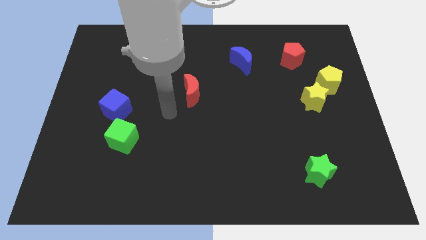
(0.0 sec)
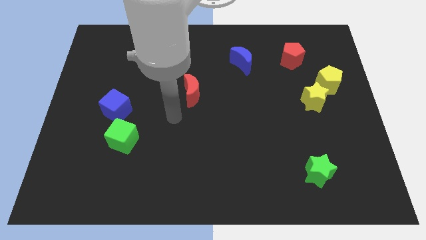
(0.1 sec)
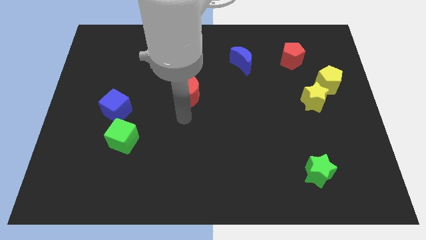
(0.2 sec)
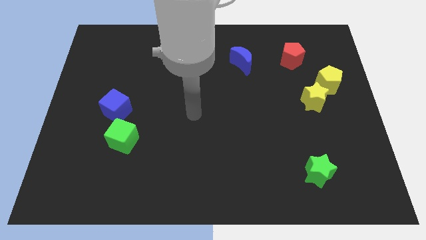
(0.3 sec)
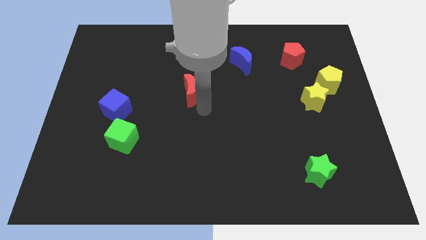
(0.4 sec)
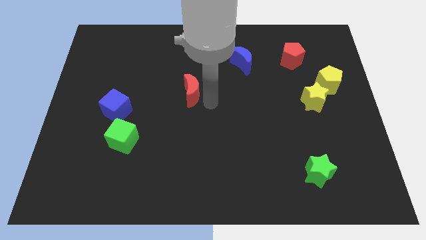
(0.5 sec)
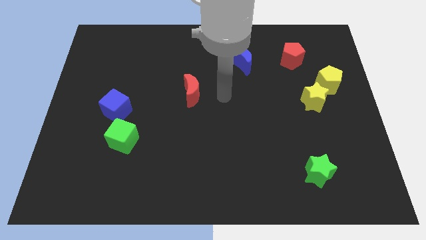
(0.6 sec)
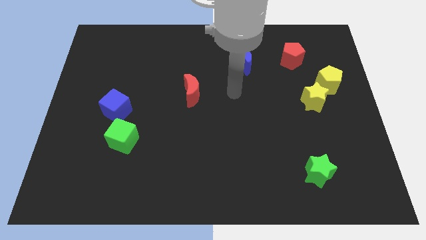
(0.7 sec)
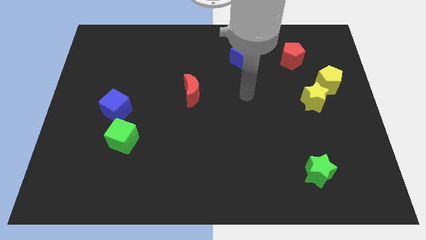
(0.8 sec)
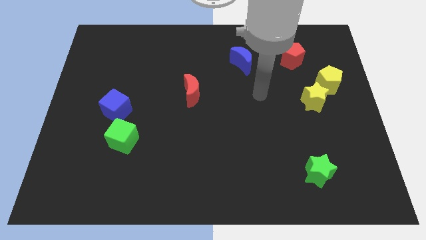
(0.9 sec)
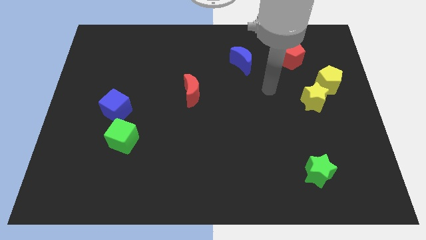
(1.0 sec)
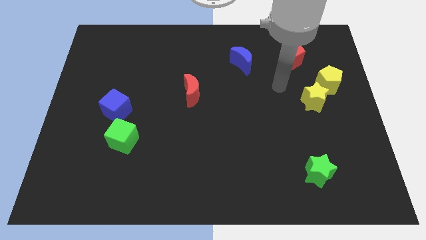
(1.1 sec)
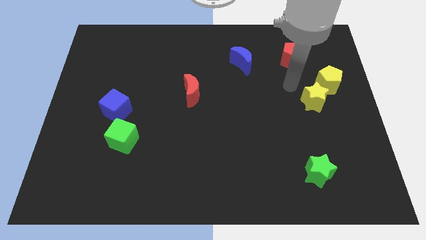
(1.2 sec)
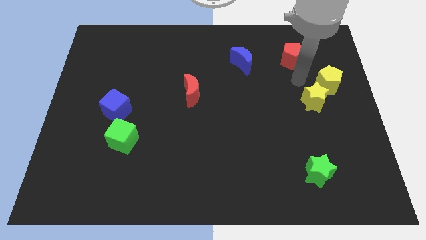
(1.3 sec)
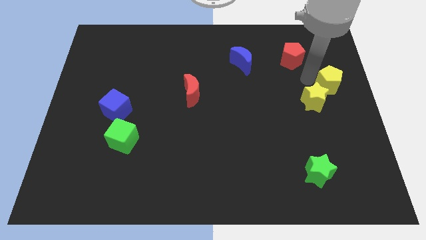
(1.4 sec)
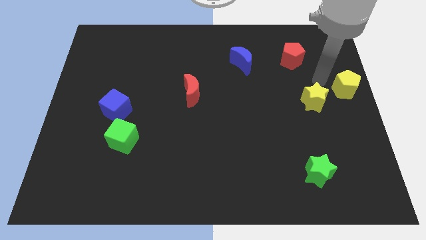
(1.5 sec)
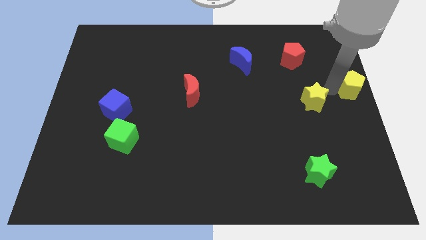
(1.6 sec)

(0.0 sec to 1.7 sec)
pull the yellow star apart from the yellow pentagon

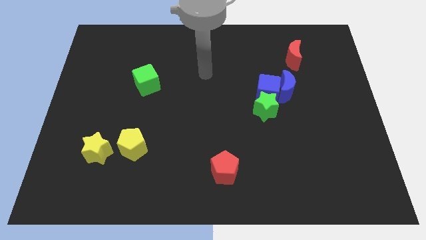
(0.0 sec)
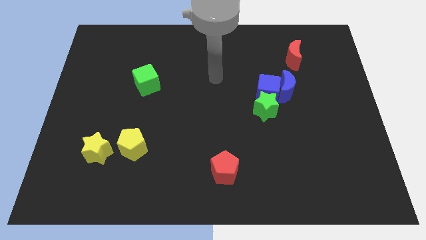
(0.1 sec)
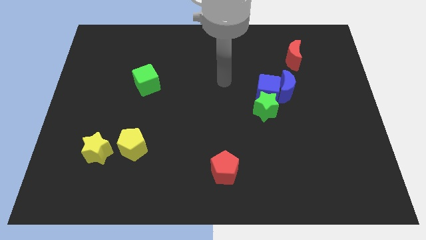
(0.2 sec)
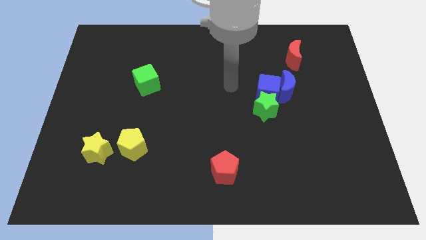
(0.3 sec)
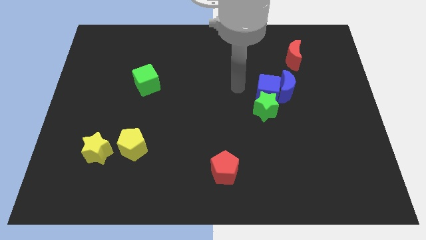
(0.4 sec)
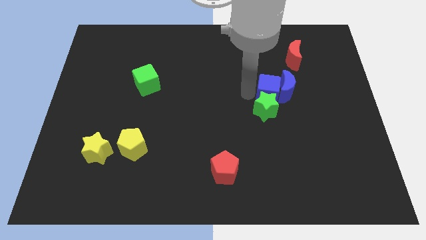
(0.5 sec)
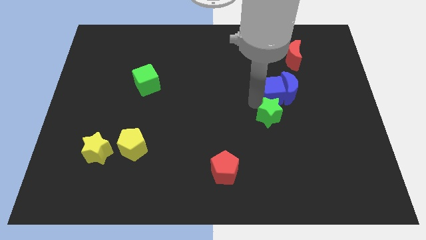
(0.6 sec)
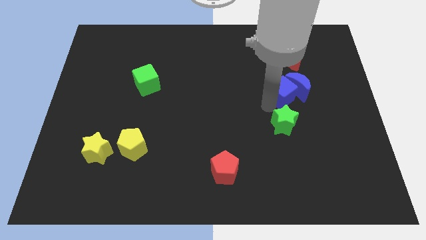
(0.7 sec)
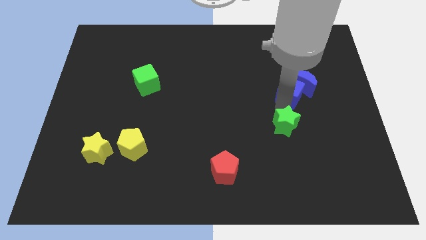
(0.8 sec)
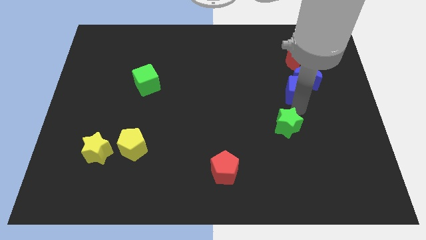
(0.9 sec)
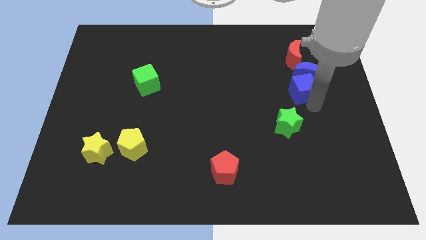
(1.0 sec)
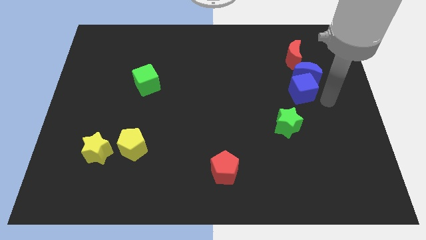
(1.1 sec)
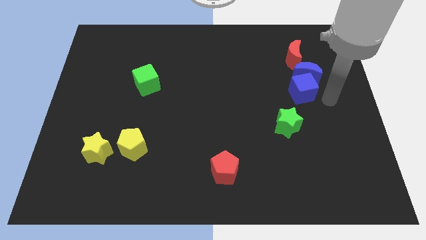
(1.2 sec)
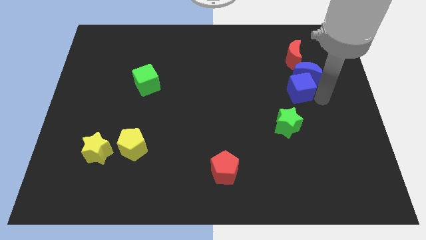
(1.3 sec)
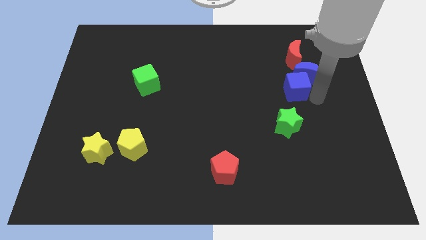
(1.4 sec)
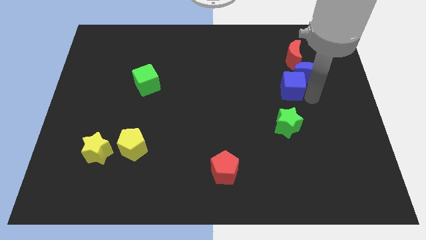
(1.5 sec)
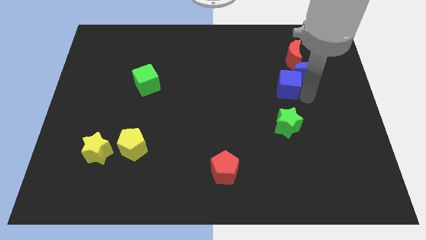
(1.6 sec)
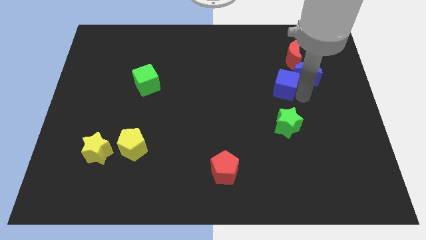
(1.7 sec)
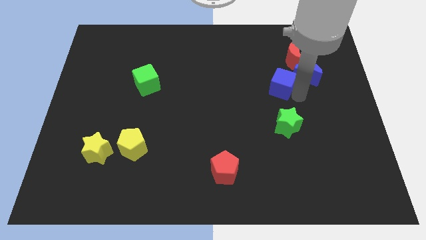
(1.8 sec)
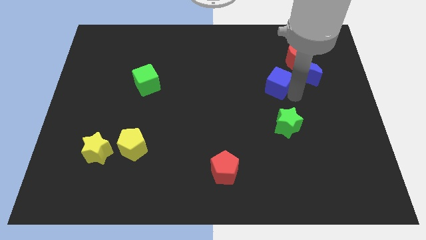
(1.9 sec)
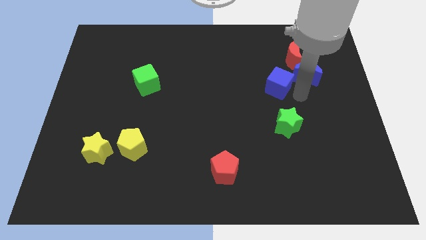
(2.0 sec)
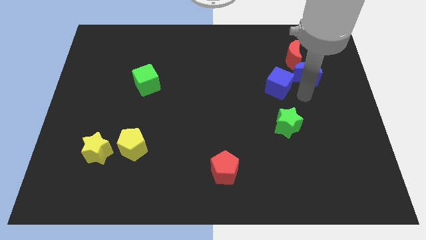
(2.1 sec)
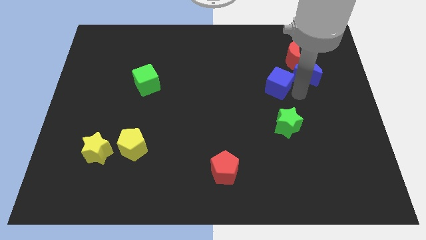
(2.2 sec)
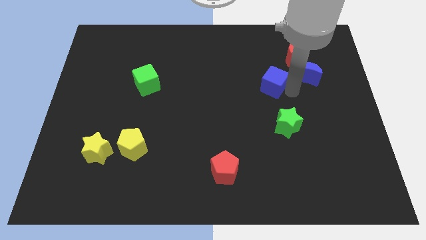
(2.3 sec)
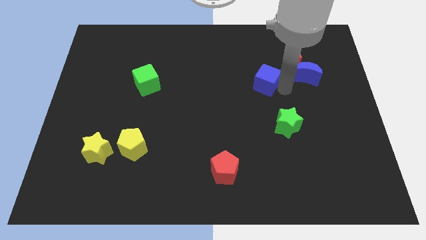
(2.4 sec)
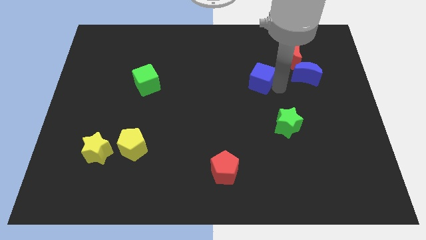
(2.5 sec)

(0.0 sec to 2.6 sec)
pull the blue cube apart from the blue moon and green star

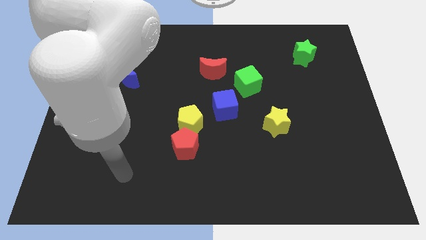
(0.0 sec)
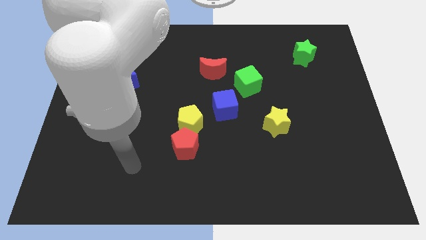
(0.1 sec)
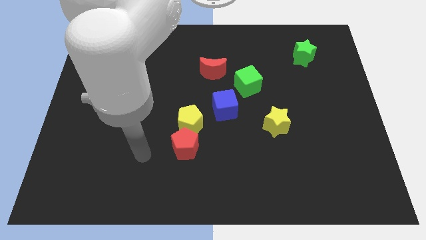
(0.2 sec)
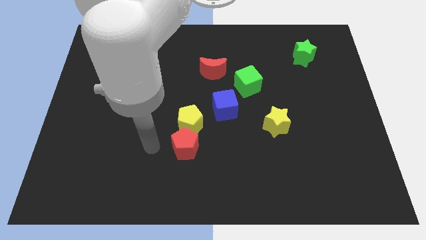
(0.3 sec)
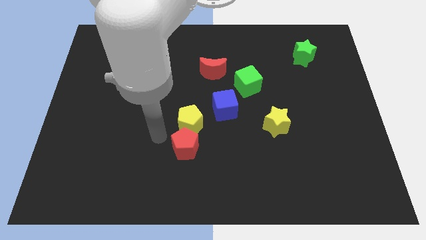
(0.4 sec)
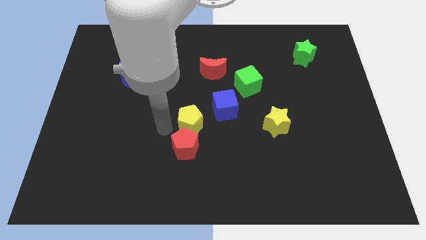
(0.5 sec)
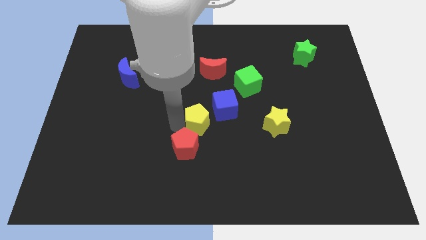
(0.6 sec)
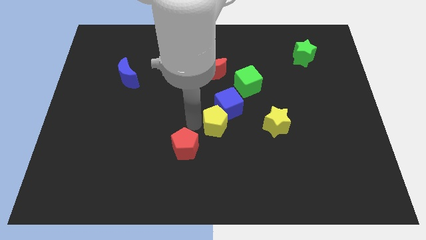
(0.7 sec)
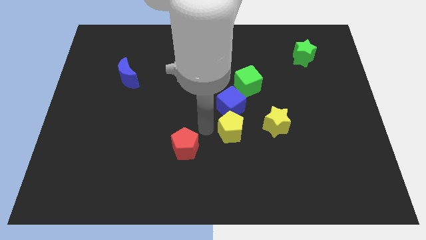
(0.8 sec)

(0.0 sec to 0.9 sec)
move the red pentagon away from the yellow pentagon

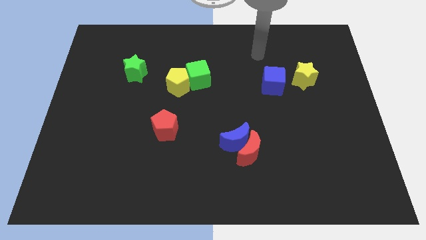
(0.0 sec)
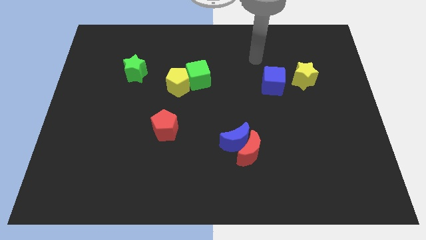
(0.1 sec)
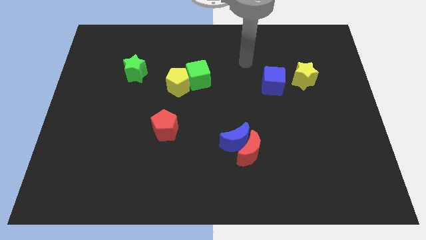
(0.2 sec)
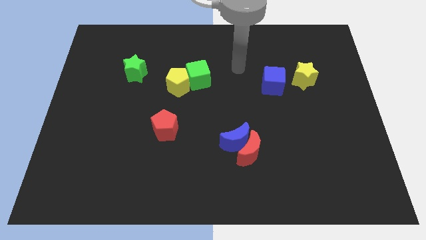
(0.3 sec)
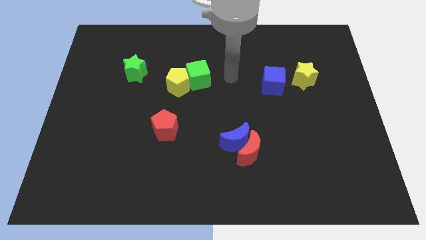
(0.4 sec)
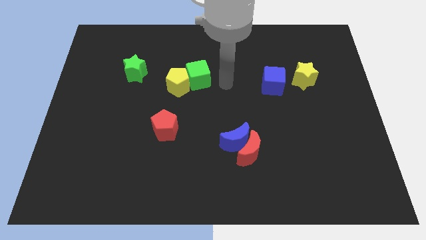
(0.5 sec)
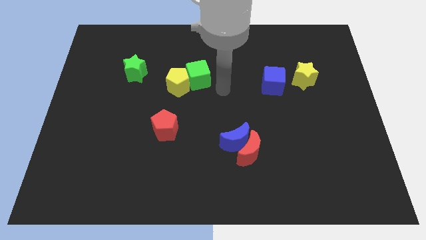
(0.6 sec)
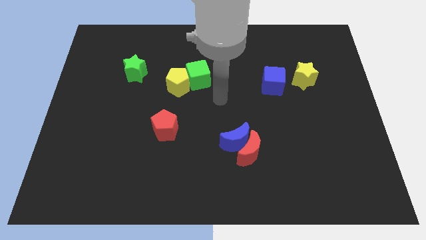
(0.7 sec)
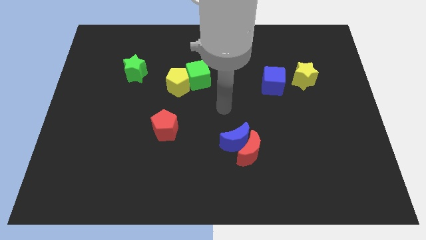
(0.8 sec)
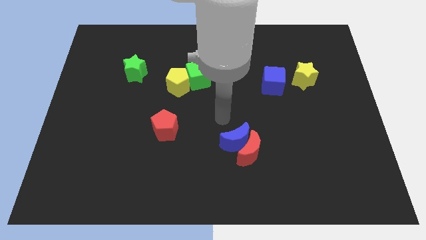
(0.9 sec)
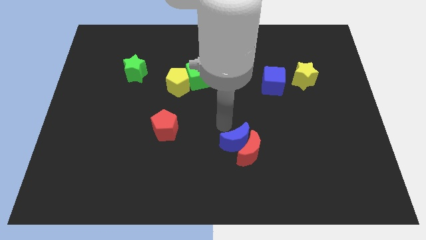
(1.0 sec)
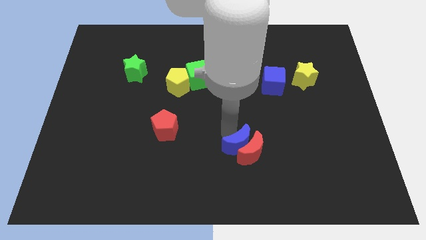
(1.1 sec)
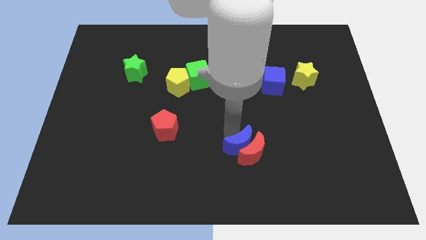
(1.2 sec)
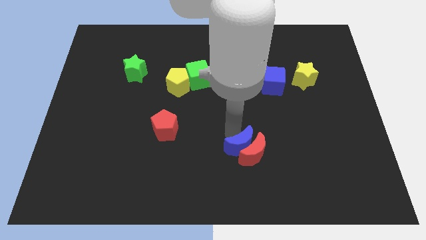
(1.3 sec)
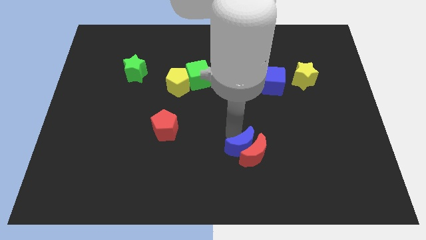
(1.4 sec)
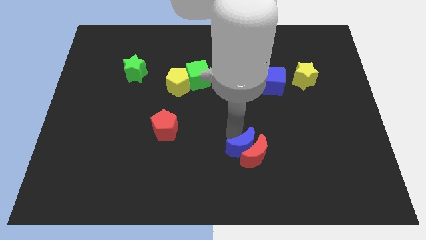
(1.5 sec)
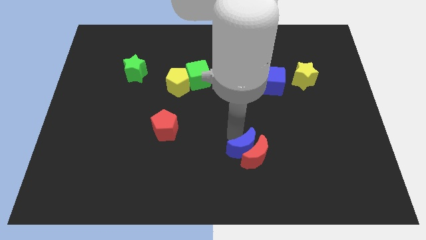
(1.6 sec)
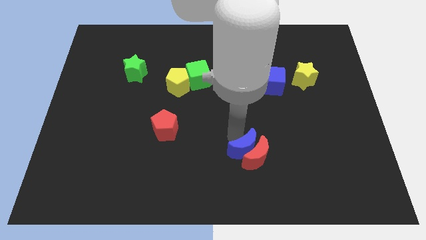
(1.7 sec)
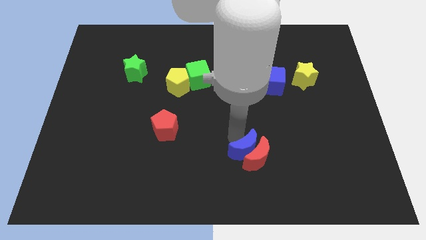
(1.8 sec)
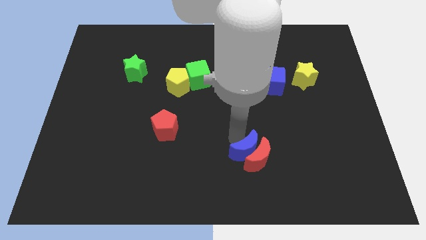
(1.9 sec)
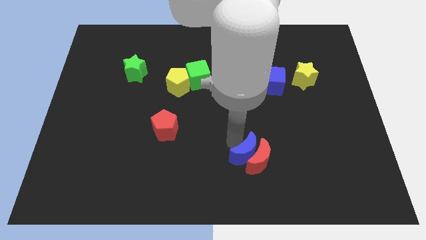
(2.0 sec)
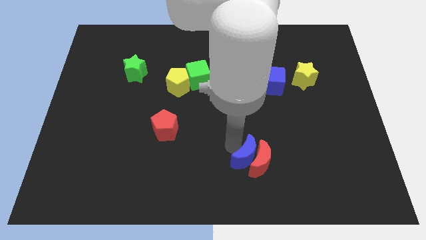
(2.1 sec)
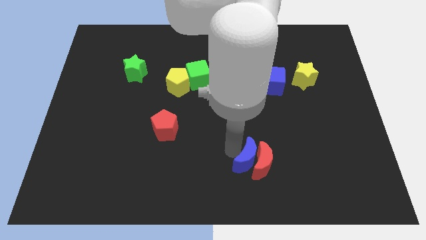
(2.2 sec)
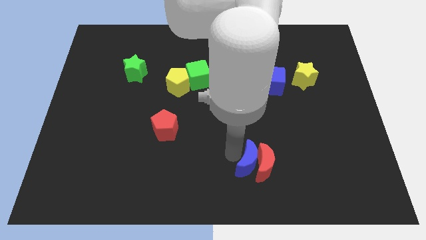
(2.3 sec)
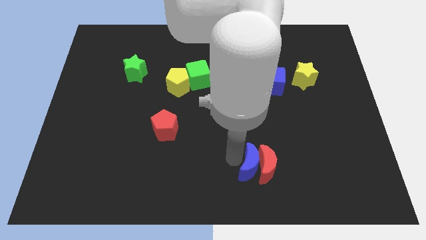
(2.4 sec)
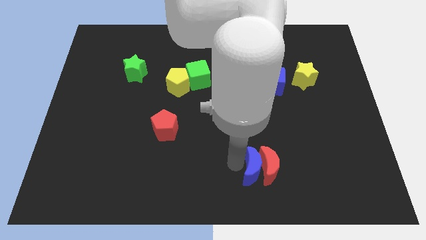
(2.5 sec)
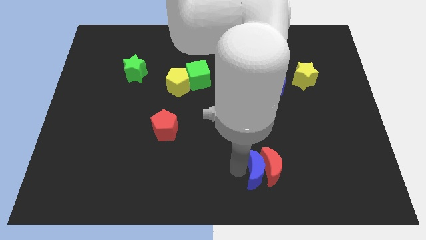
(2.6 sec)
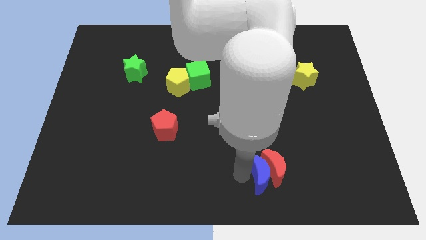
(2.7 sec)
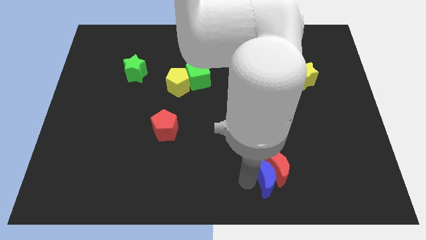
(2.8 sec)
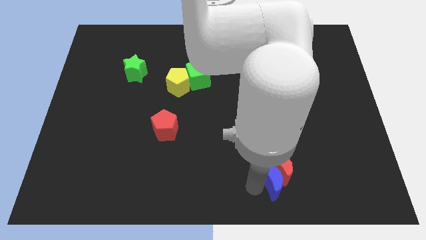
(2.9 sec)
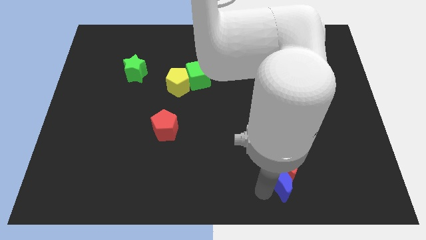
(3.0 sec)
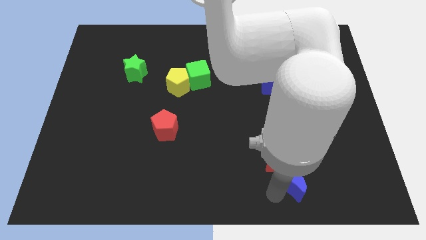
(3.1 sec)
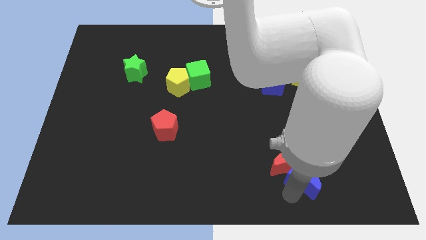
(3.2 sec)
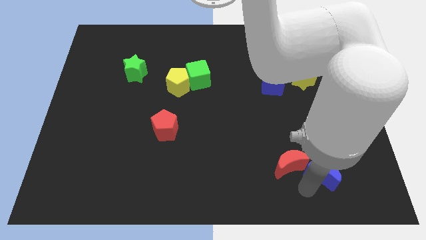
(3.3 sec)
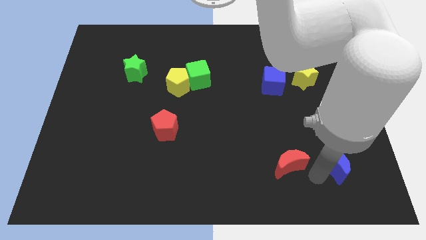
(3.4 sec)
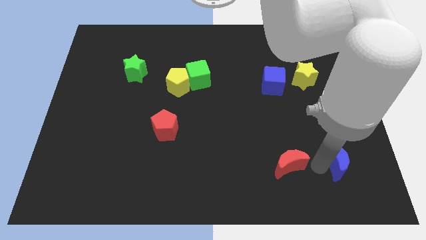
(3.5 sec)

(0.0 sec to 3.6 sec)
pull the red moon apart from the blue moon

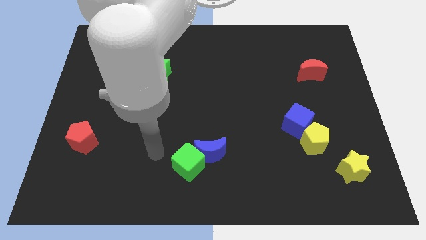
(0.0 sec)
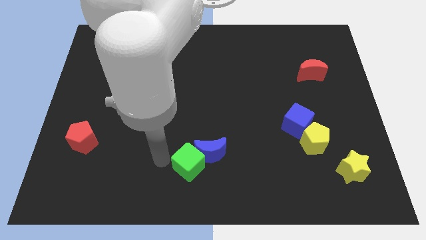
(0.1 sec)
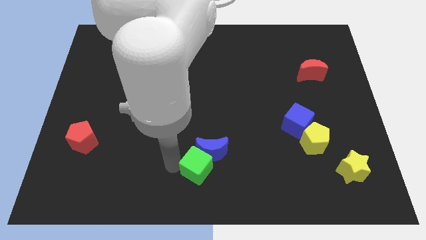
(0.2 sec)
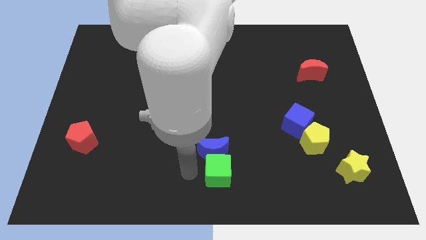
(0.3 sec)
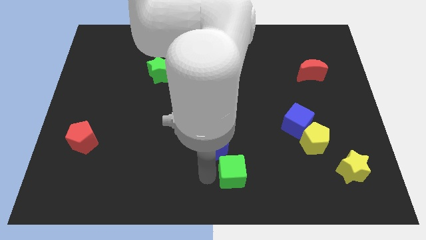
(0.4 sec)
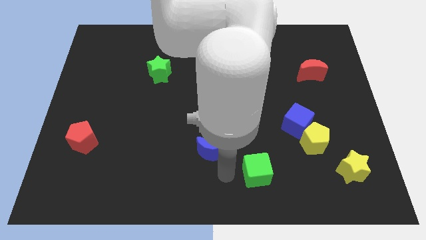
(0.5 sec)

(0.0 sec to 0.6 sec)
separate the blue moon from the green cube
